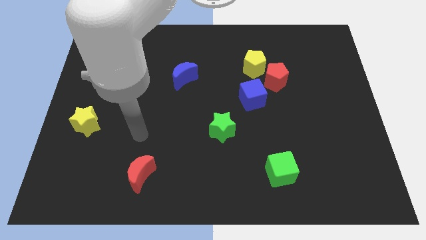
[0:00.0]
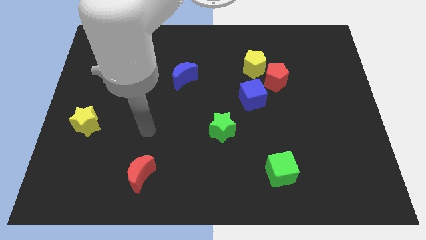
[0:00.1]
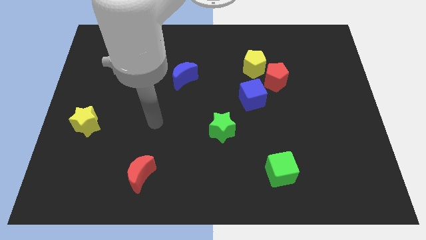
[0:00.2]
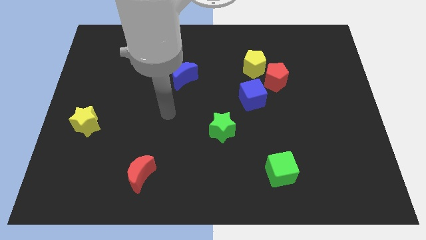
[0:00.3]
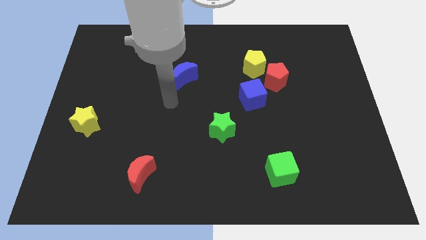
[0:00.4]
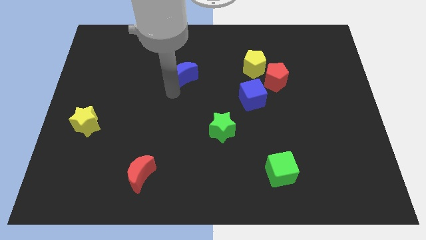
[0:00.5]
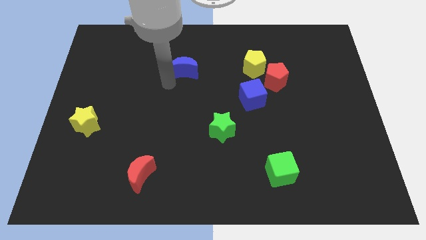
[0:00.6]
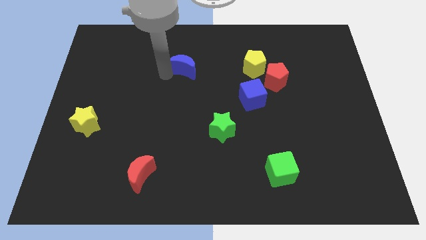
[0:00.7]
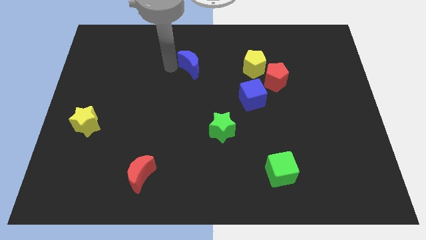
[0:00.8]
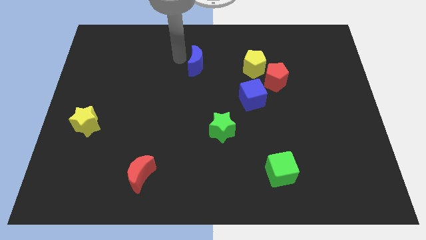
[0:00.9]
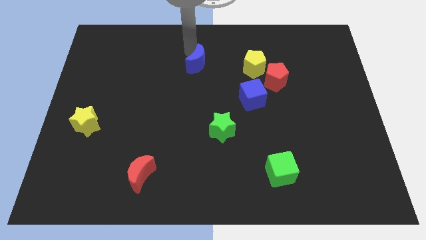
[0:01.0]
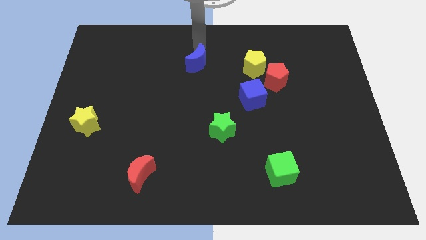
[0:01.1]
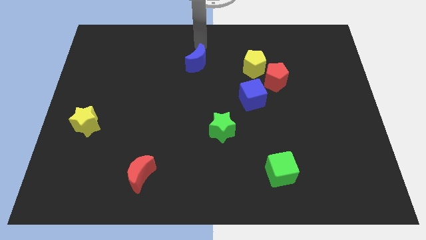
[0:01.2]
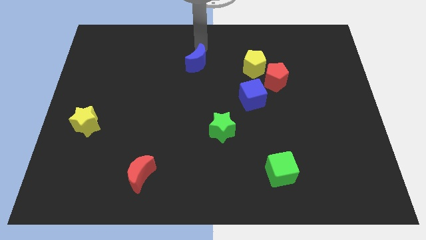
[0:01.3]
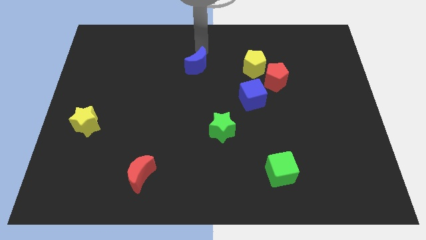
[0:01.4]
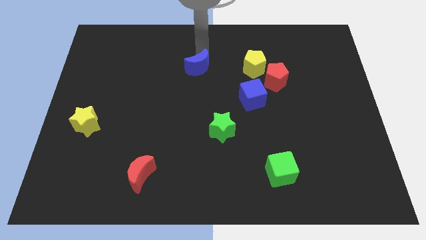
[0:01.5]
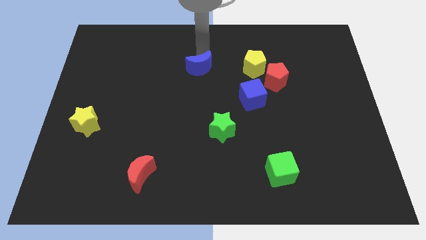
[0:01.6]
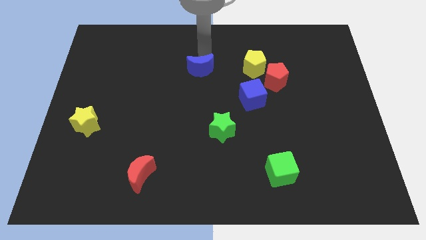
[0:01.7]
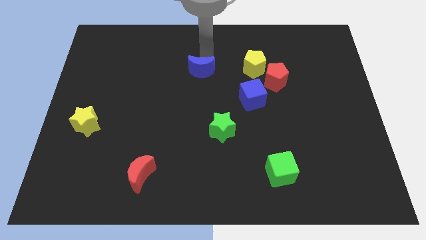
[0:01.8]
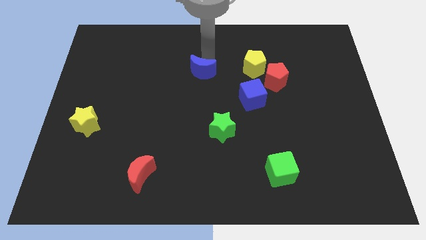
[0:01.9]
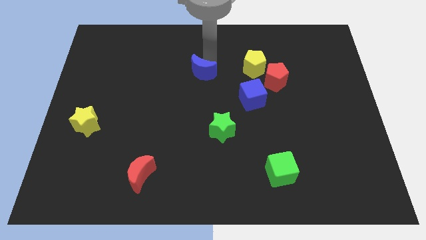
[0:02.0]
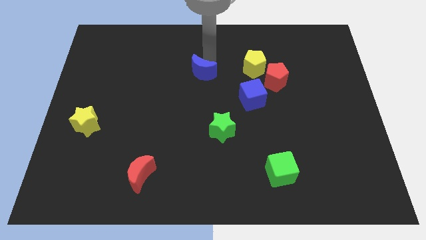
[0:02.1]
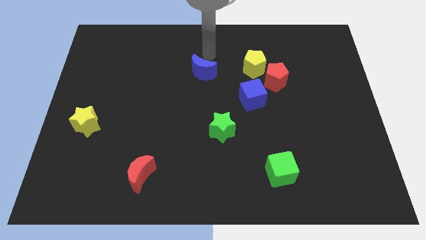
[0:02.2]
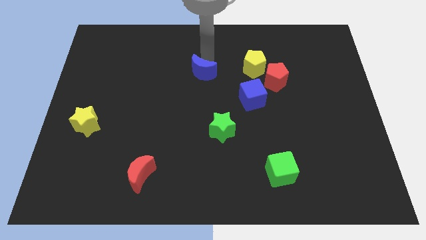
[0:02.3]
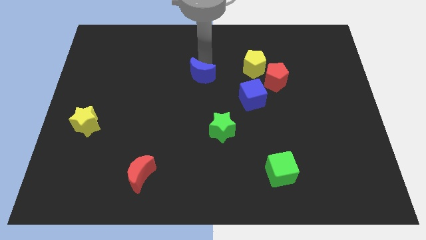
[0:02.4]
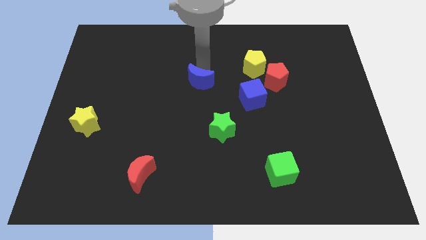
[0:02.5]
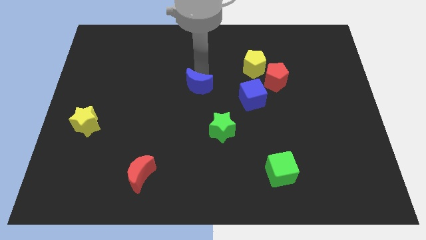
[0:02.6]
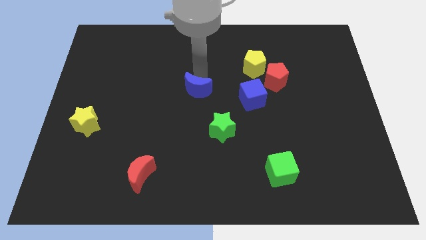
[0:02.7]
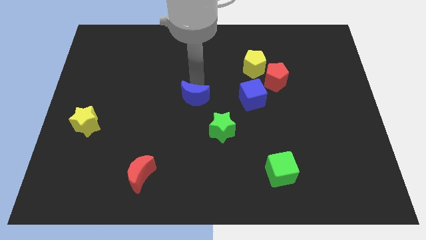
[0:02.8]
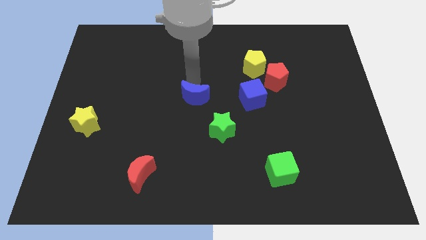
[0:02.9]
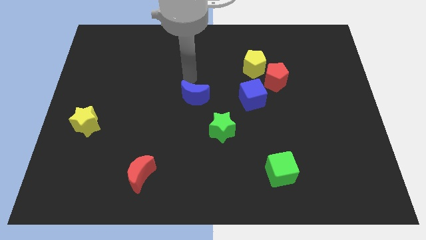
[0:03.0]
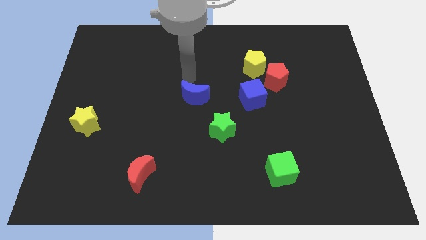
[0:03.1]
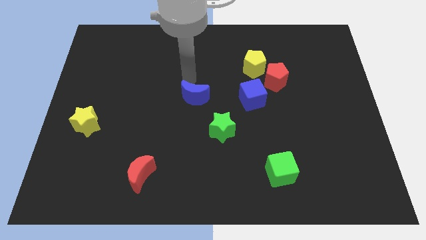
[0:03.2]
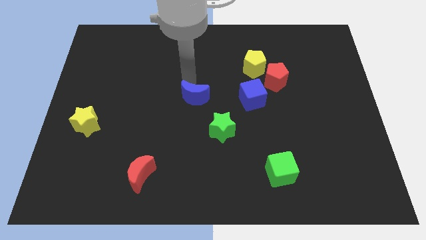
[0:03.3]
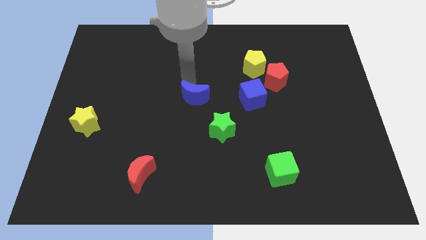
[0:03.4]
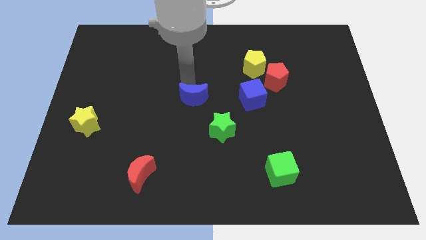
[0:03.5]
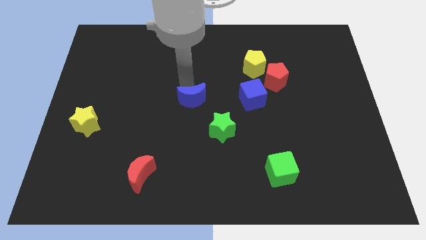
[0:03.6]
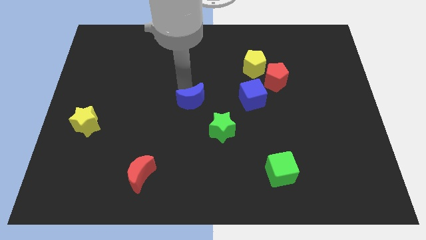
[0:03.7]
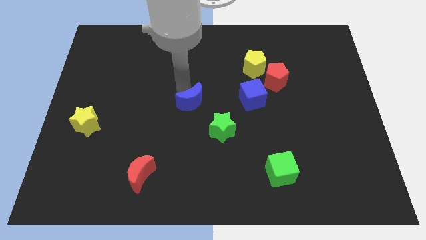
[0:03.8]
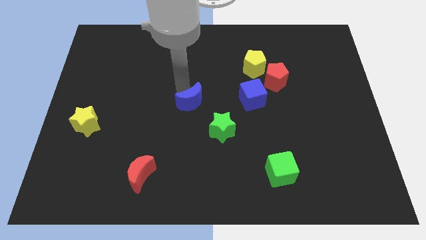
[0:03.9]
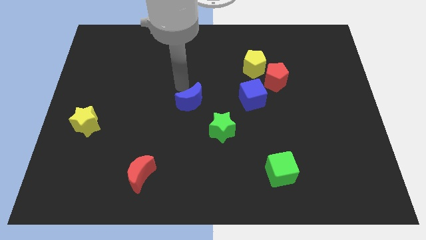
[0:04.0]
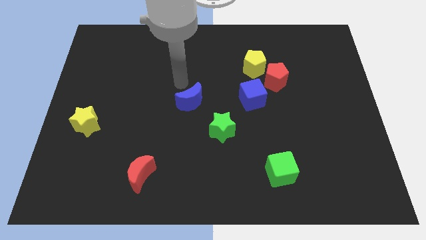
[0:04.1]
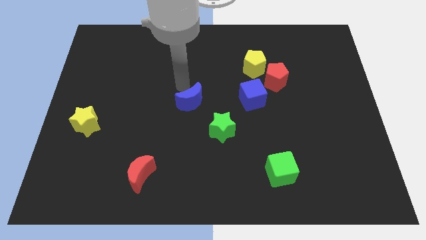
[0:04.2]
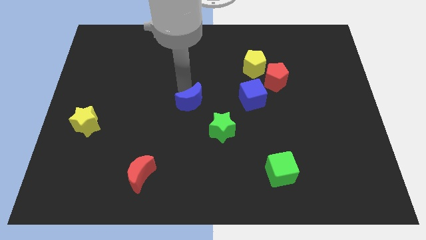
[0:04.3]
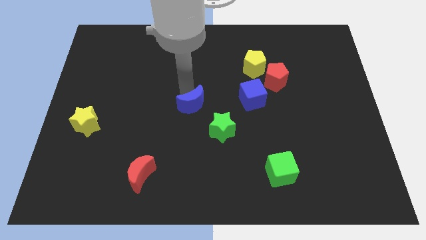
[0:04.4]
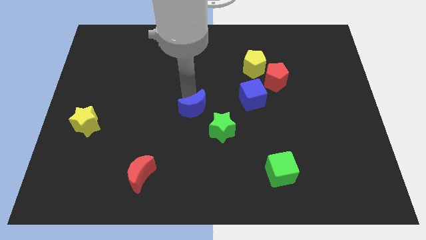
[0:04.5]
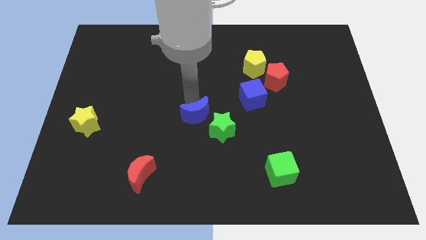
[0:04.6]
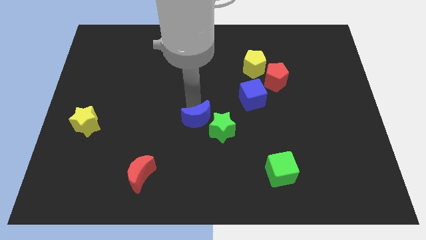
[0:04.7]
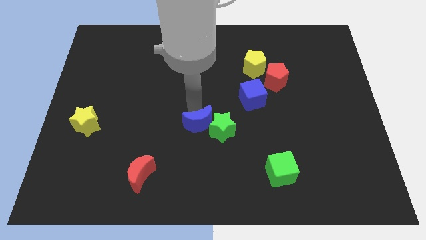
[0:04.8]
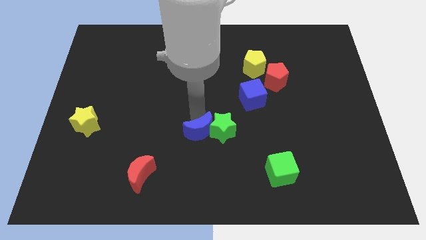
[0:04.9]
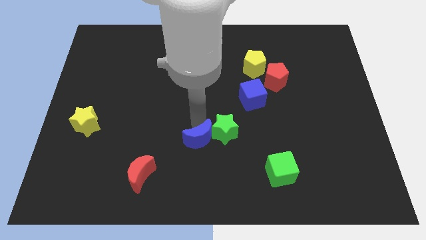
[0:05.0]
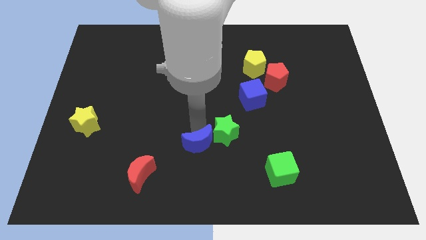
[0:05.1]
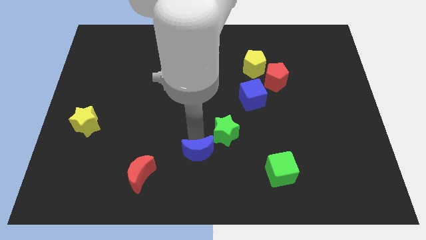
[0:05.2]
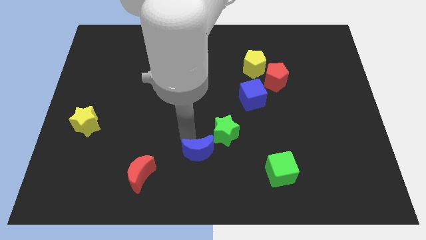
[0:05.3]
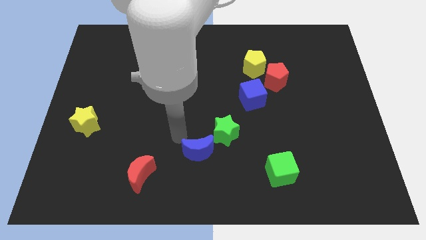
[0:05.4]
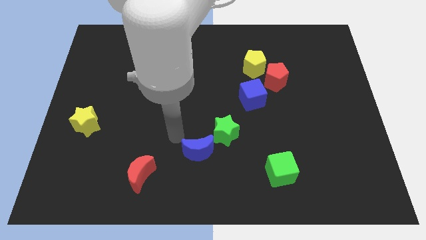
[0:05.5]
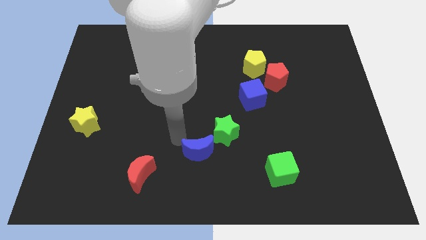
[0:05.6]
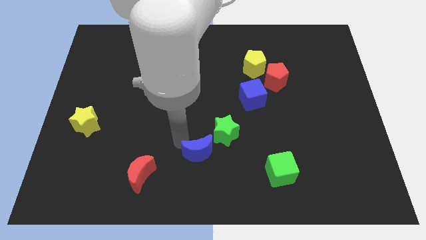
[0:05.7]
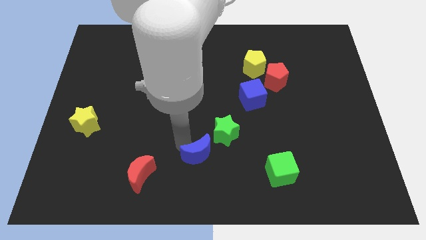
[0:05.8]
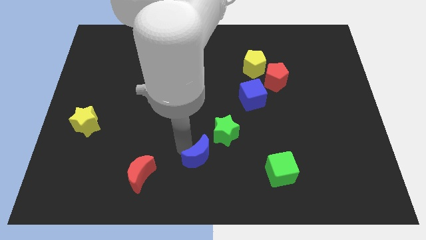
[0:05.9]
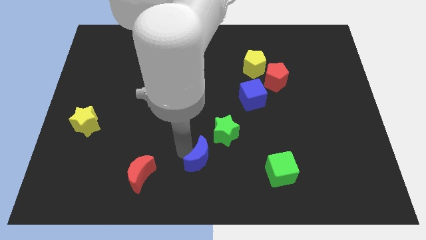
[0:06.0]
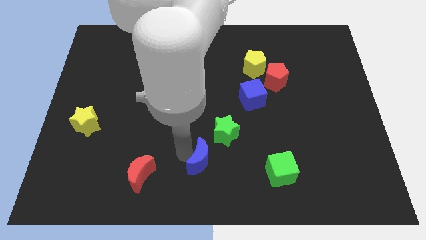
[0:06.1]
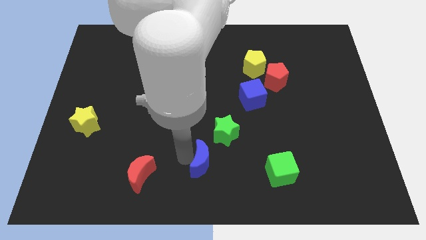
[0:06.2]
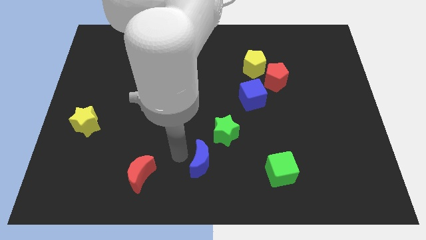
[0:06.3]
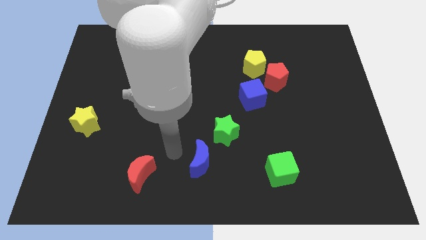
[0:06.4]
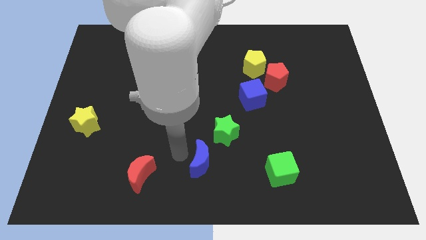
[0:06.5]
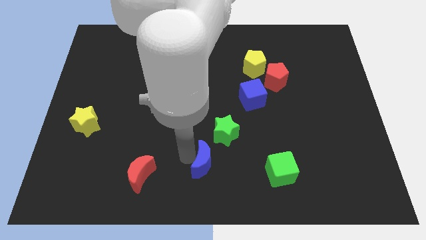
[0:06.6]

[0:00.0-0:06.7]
put the blue moon to the left of the green cube
